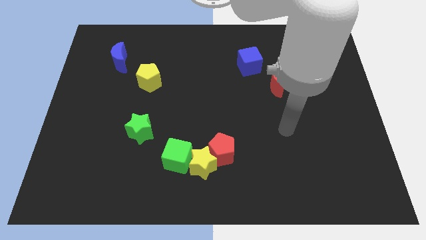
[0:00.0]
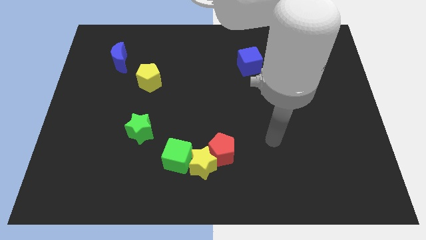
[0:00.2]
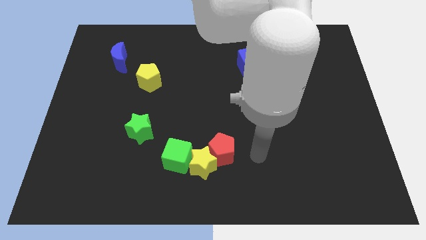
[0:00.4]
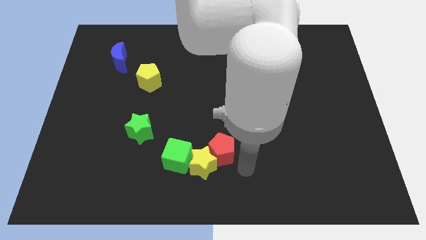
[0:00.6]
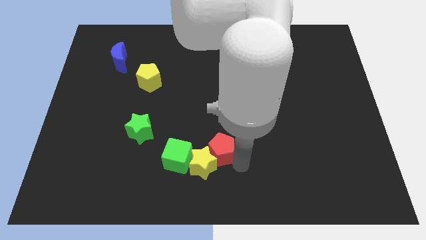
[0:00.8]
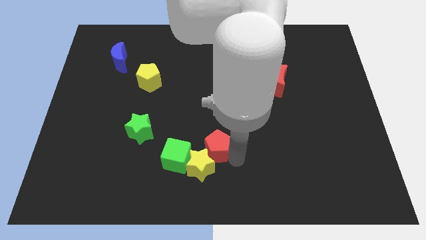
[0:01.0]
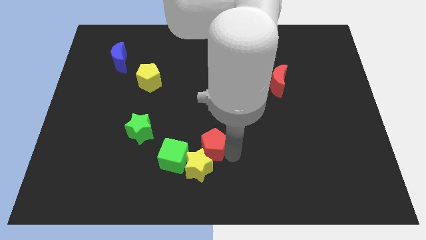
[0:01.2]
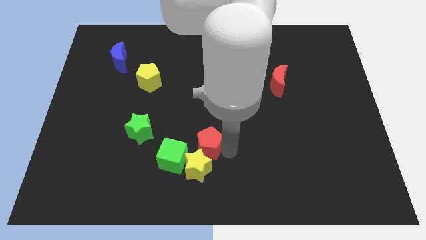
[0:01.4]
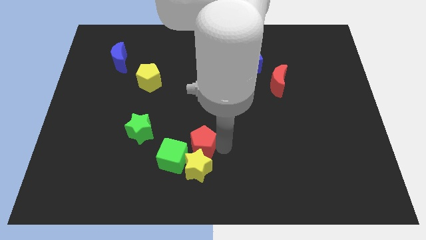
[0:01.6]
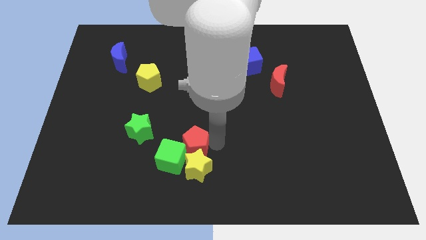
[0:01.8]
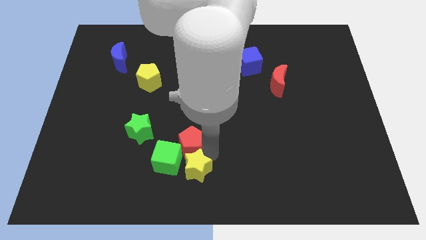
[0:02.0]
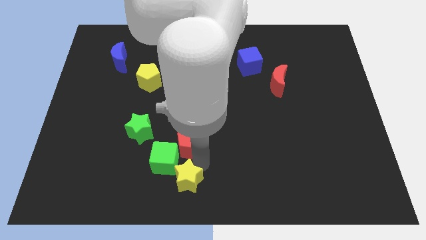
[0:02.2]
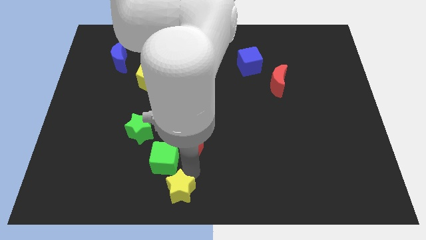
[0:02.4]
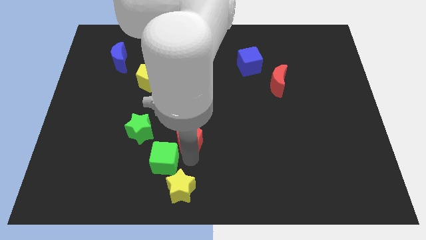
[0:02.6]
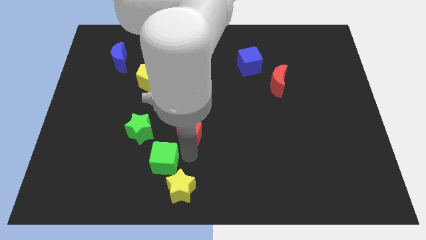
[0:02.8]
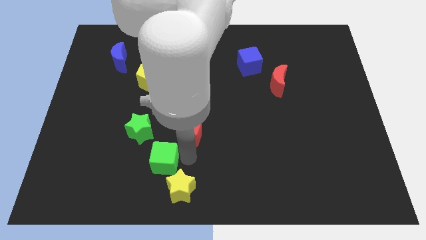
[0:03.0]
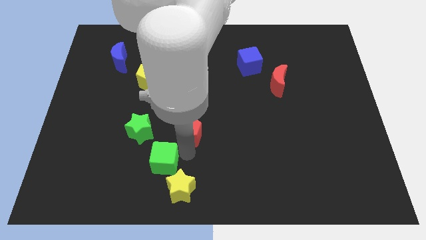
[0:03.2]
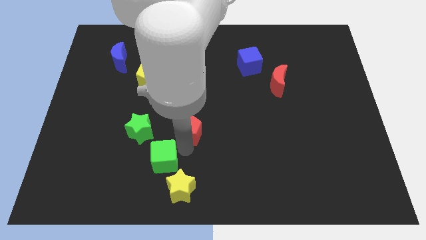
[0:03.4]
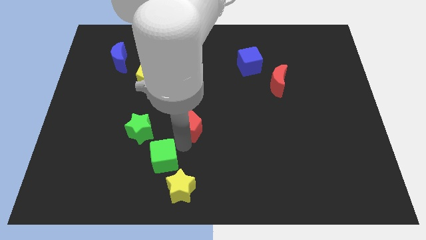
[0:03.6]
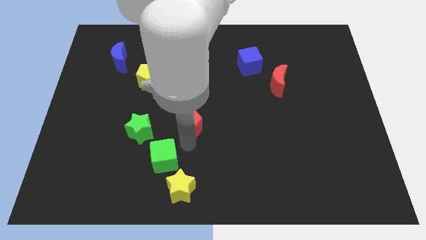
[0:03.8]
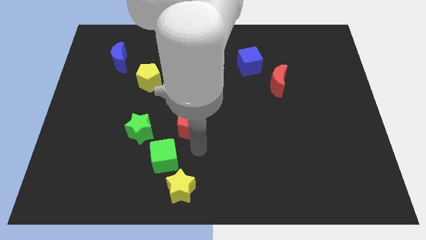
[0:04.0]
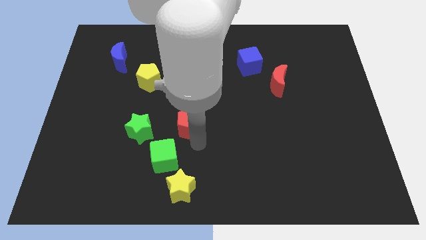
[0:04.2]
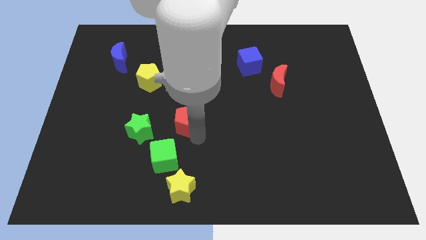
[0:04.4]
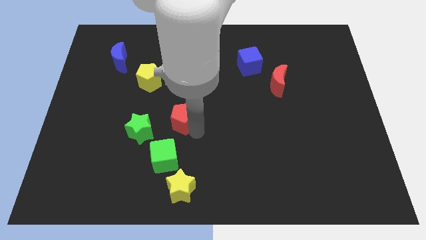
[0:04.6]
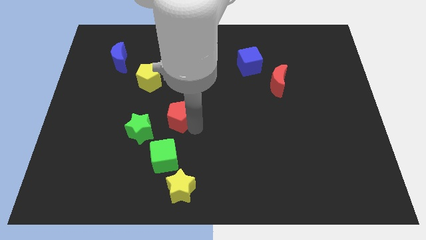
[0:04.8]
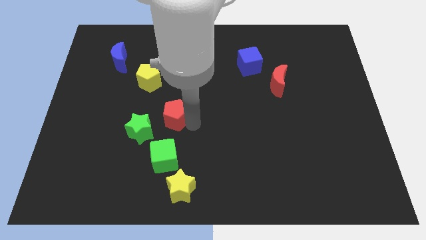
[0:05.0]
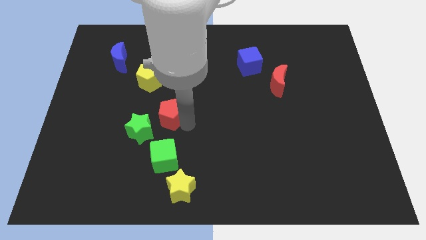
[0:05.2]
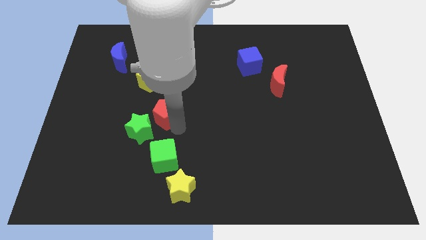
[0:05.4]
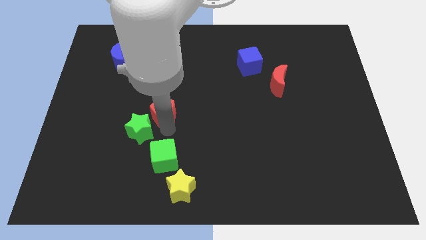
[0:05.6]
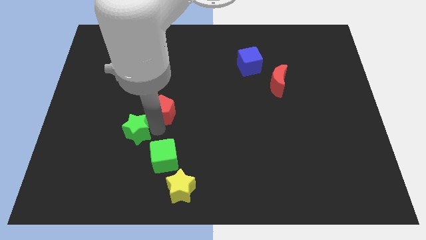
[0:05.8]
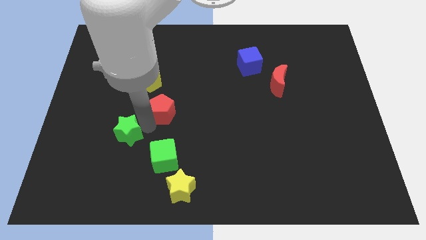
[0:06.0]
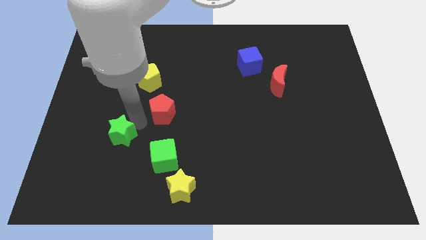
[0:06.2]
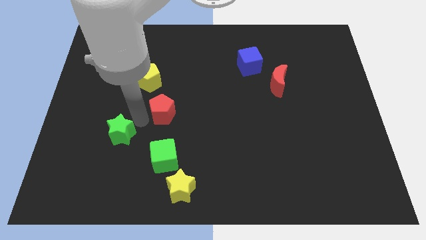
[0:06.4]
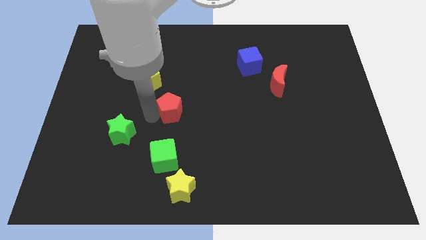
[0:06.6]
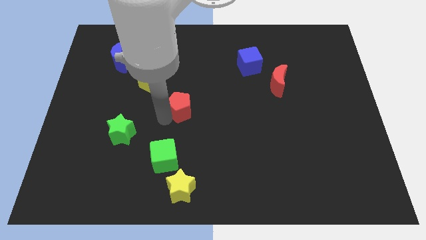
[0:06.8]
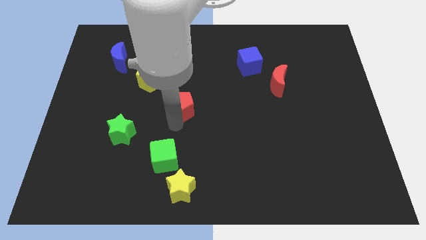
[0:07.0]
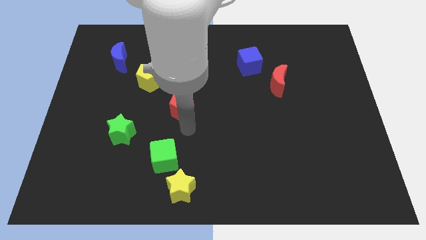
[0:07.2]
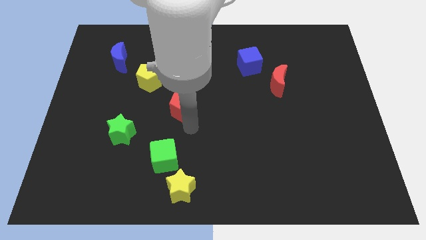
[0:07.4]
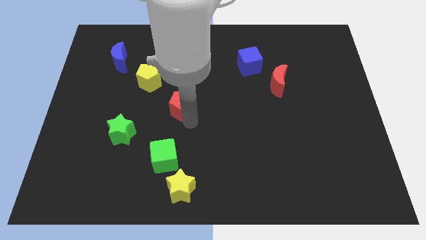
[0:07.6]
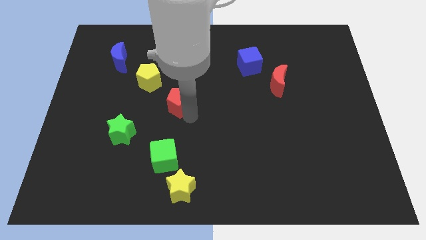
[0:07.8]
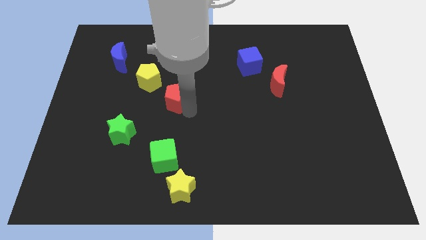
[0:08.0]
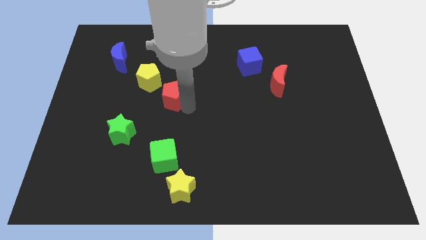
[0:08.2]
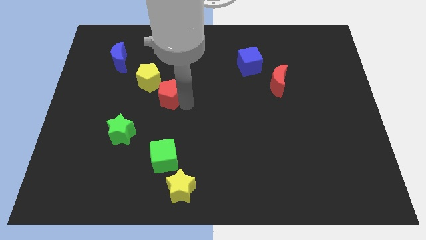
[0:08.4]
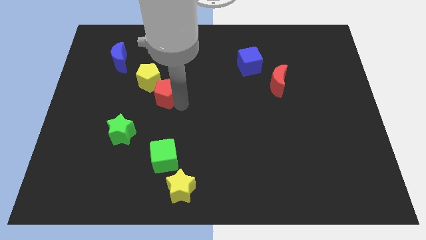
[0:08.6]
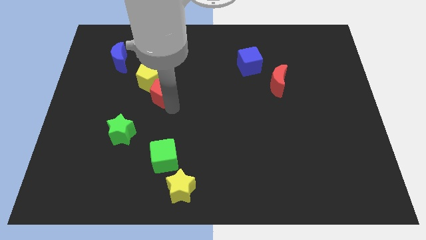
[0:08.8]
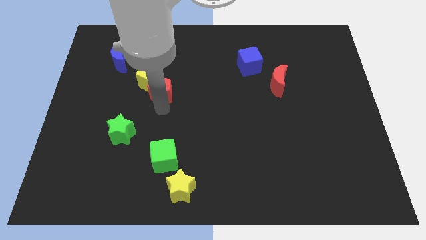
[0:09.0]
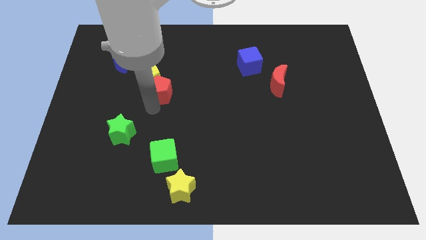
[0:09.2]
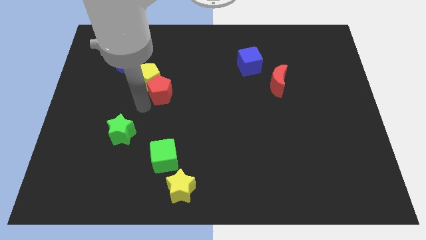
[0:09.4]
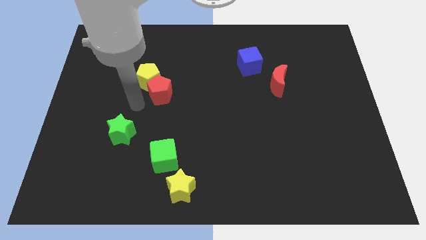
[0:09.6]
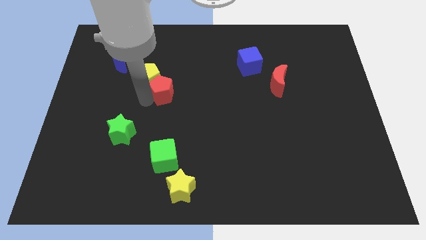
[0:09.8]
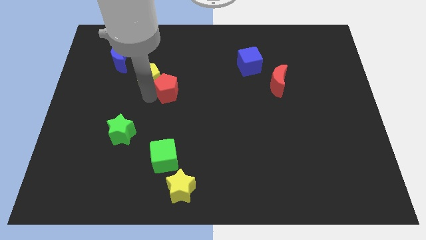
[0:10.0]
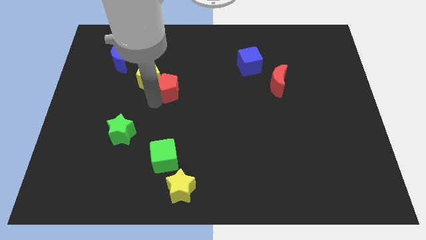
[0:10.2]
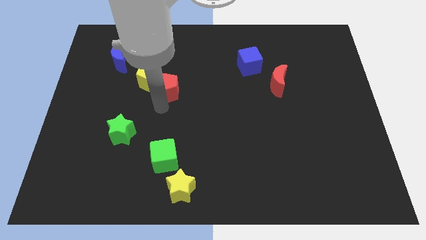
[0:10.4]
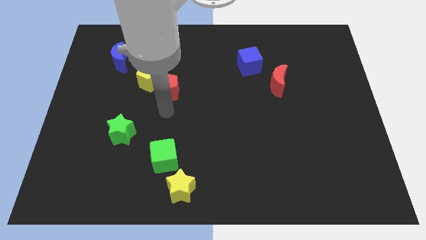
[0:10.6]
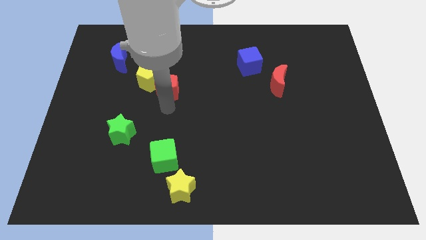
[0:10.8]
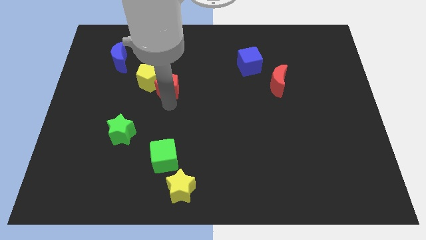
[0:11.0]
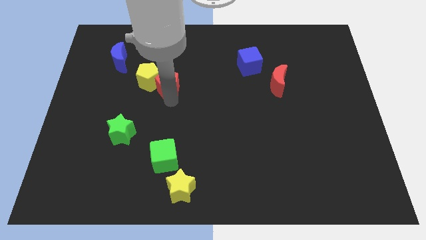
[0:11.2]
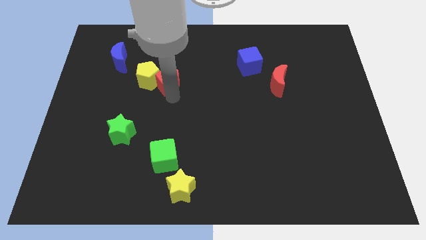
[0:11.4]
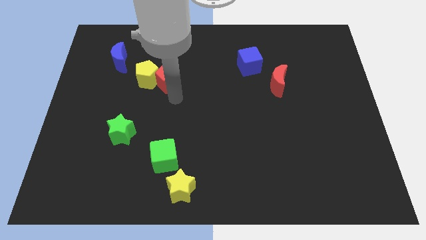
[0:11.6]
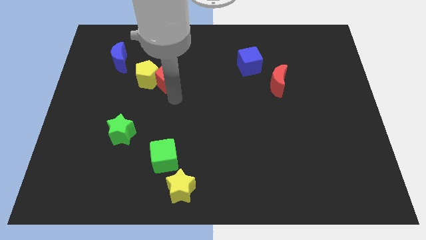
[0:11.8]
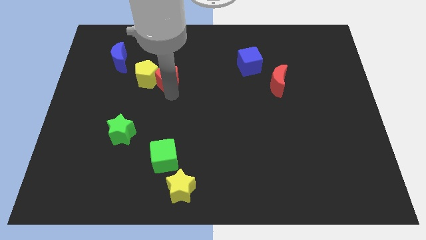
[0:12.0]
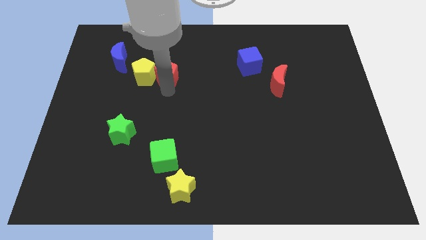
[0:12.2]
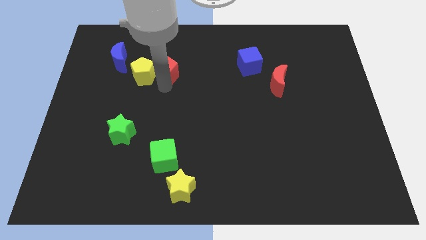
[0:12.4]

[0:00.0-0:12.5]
push the red pentagon to the right of the blue moon
